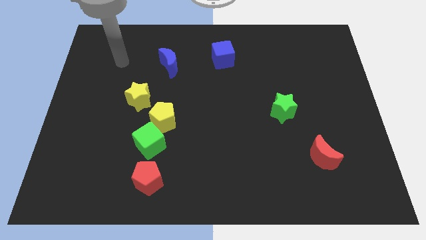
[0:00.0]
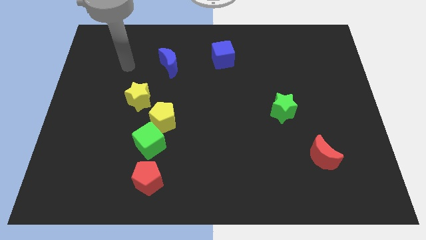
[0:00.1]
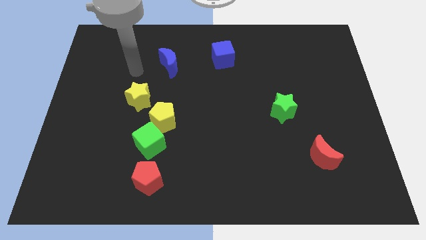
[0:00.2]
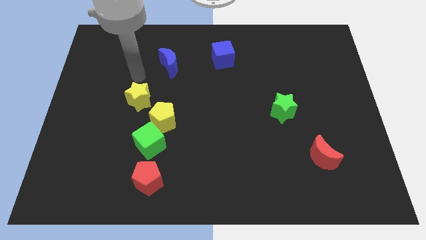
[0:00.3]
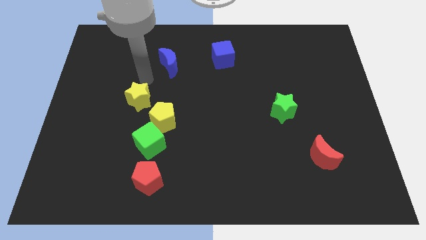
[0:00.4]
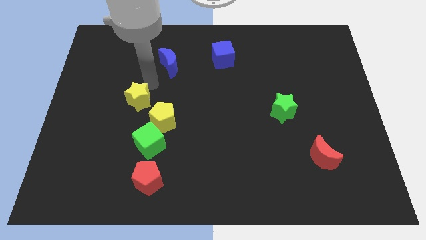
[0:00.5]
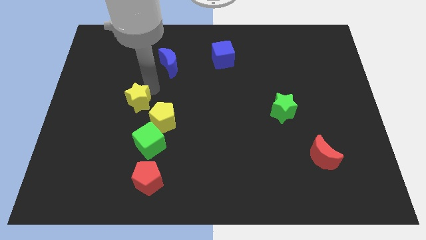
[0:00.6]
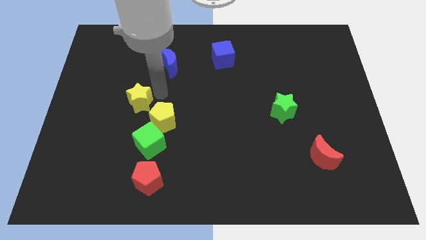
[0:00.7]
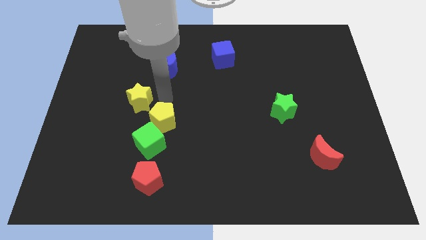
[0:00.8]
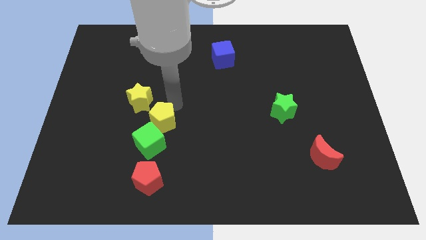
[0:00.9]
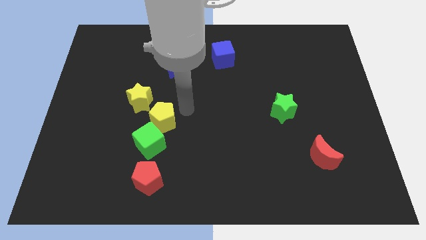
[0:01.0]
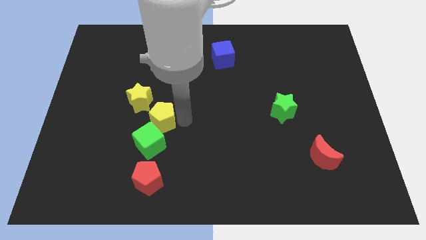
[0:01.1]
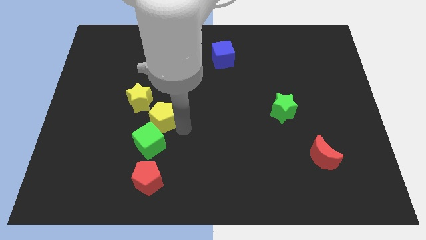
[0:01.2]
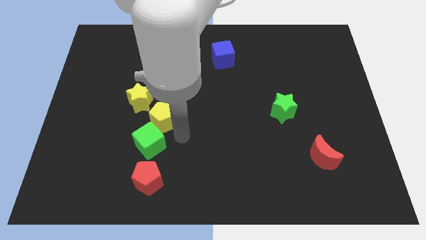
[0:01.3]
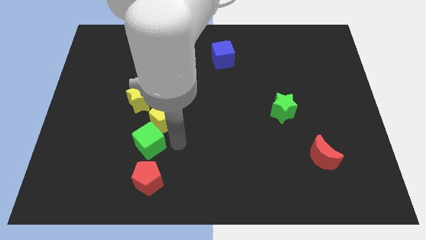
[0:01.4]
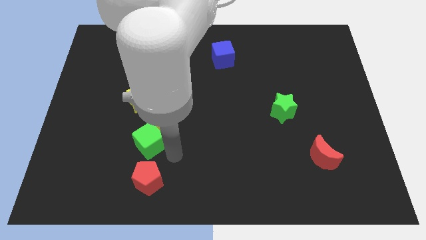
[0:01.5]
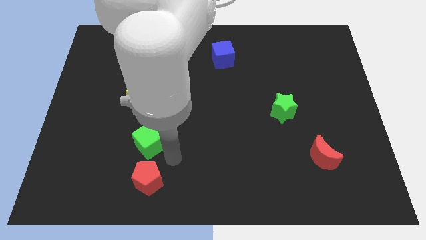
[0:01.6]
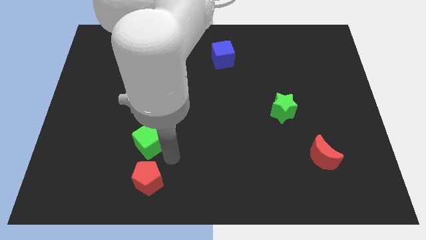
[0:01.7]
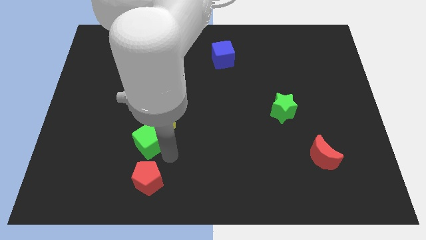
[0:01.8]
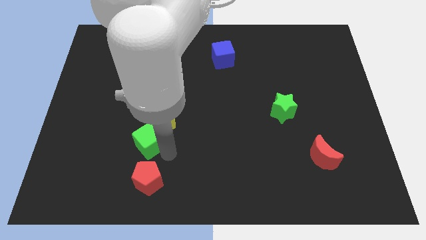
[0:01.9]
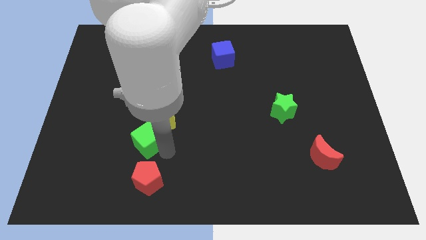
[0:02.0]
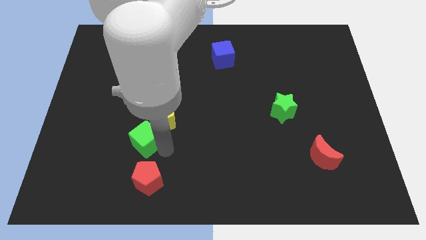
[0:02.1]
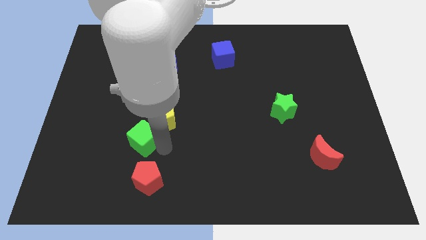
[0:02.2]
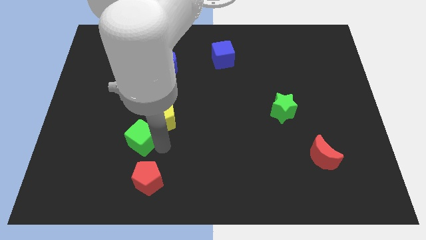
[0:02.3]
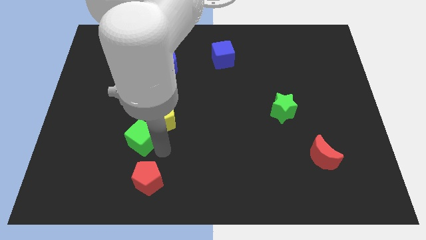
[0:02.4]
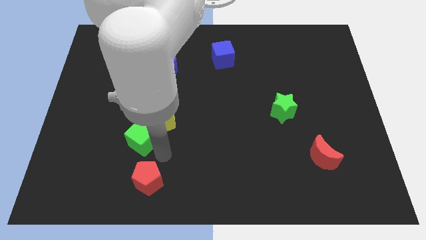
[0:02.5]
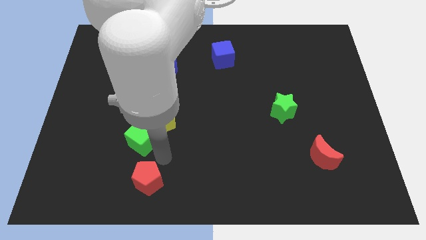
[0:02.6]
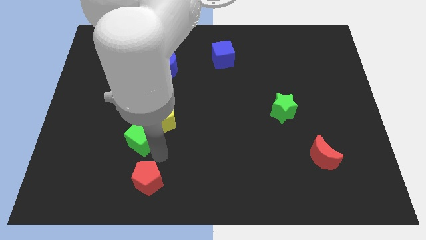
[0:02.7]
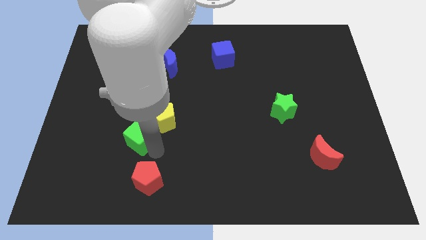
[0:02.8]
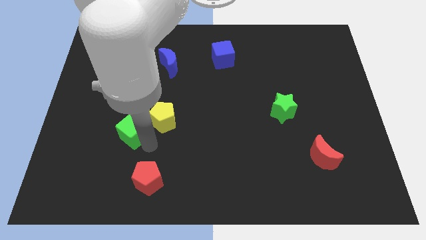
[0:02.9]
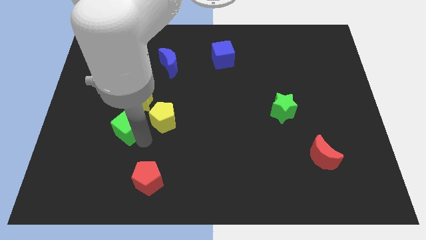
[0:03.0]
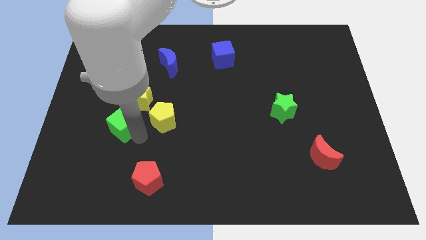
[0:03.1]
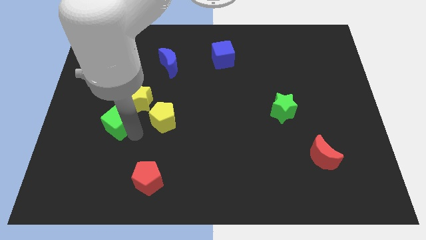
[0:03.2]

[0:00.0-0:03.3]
move the green cube away from the yellow pentagon and red pentagon

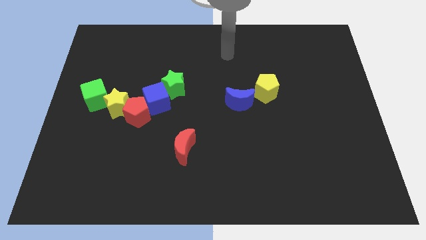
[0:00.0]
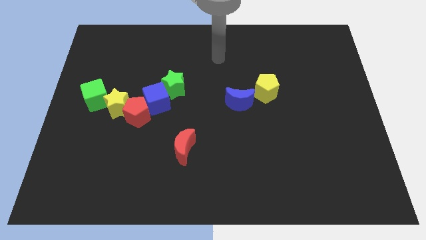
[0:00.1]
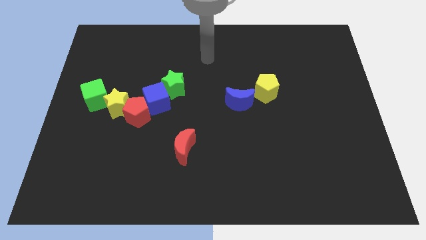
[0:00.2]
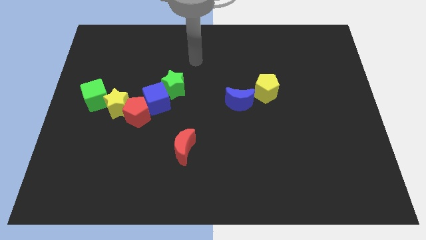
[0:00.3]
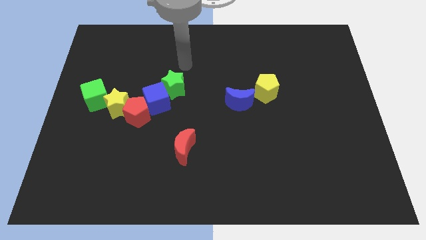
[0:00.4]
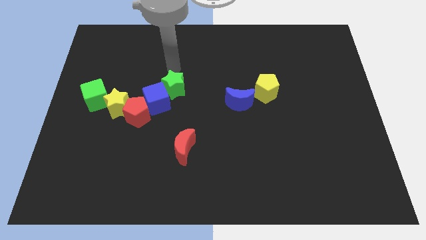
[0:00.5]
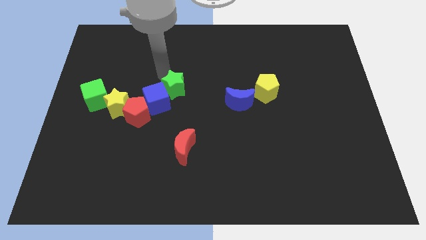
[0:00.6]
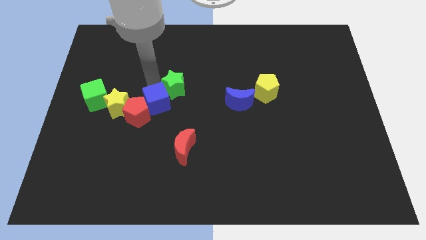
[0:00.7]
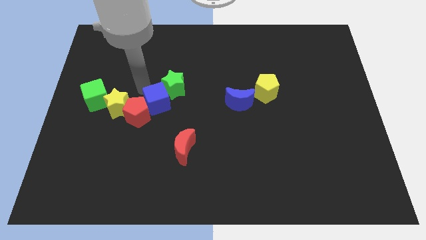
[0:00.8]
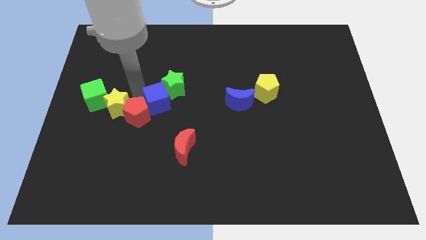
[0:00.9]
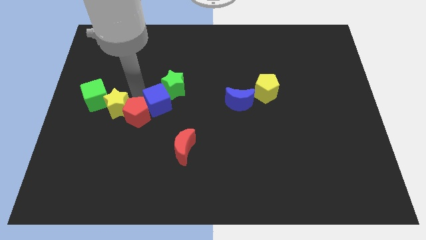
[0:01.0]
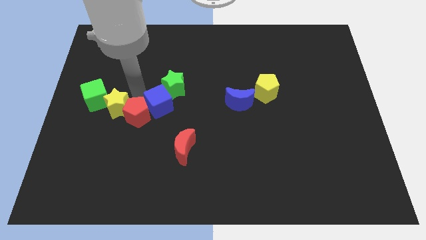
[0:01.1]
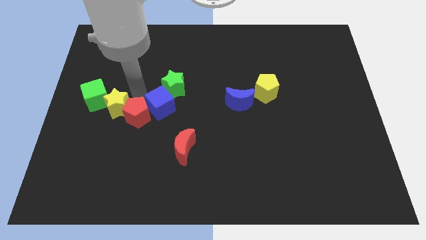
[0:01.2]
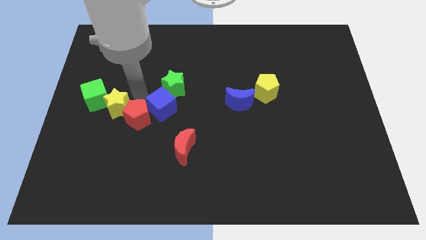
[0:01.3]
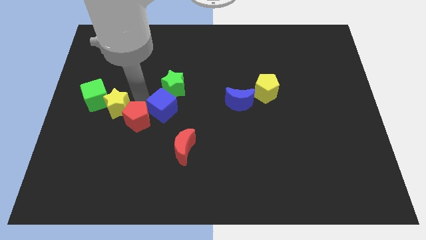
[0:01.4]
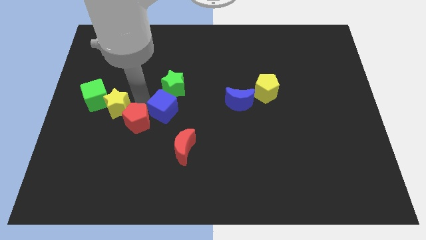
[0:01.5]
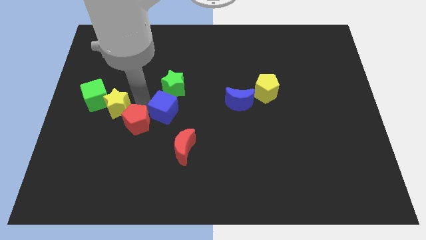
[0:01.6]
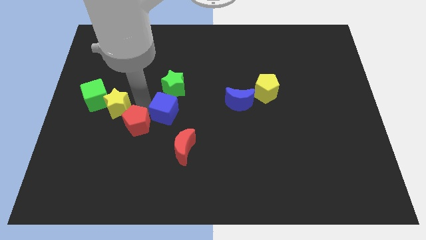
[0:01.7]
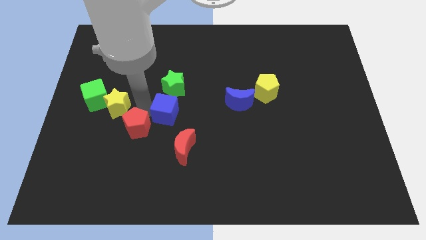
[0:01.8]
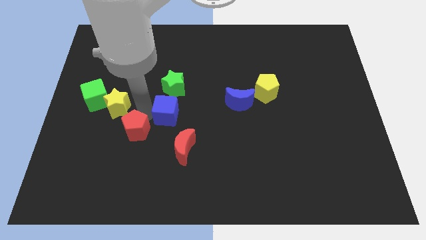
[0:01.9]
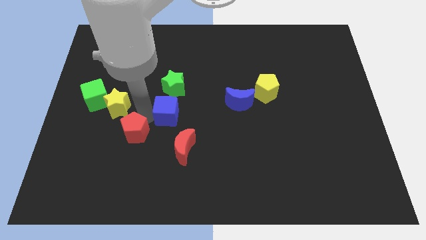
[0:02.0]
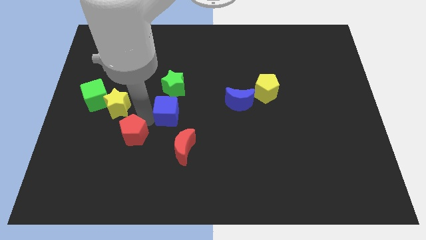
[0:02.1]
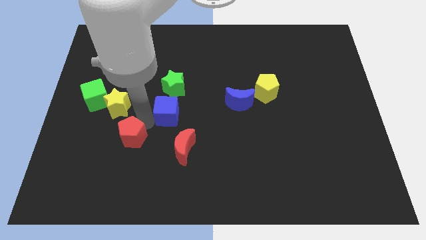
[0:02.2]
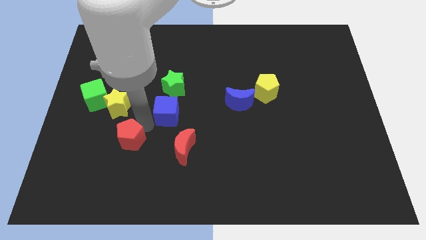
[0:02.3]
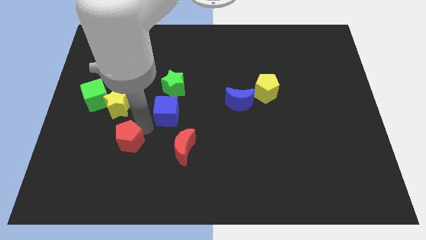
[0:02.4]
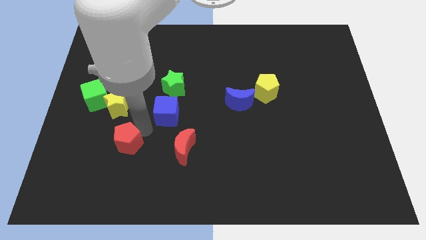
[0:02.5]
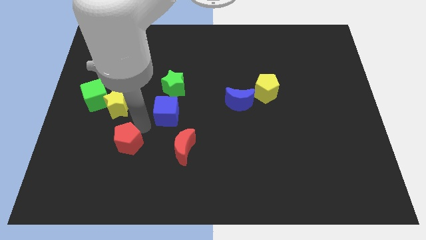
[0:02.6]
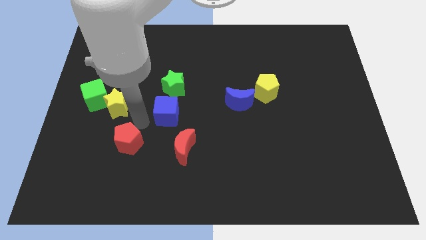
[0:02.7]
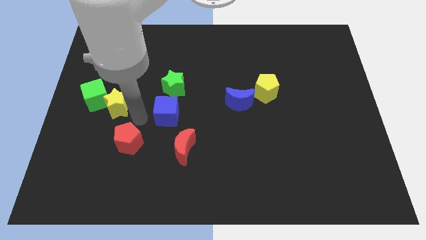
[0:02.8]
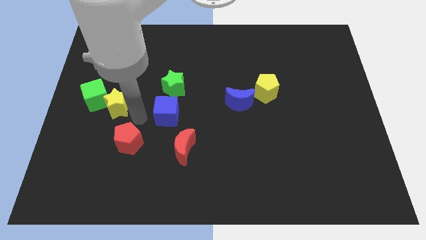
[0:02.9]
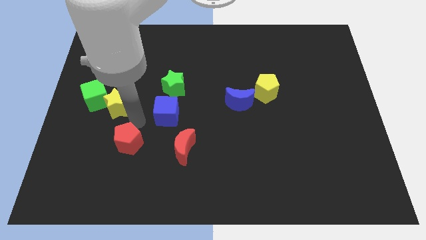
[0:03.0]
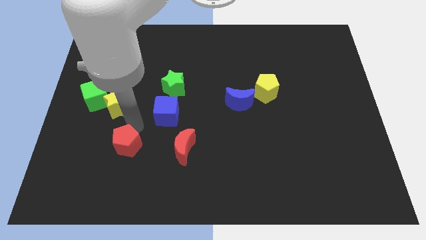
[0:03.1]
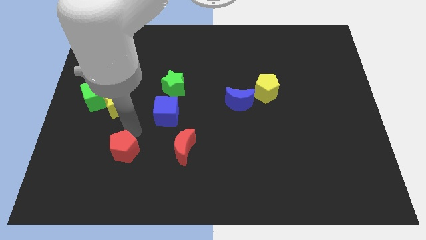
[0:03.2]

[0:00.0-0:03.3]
pull the red pentagon apart from the blue cube and yellow star

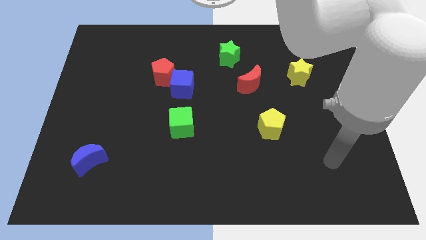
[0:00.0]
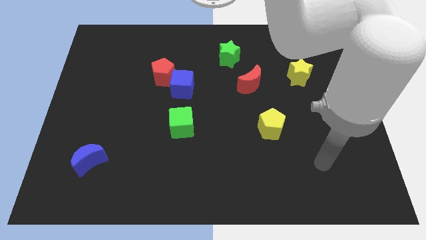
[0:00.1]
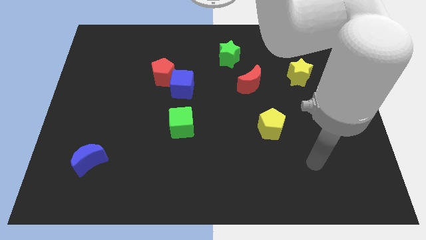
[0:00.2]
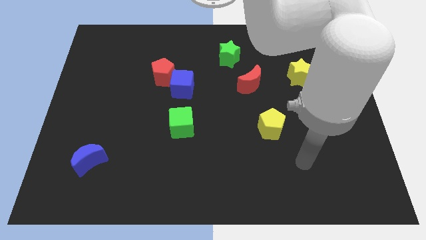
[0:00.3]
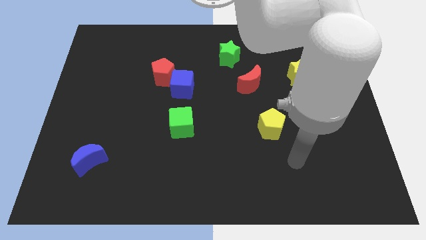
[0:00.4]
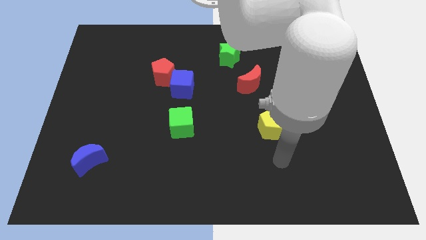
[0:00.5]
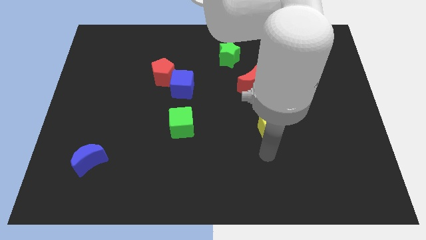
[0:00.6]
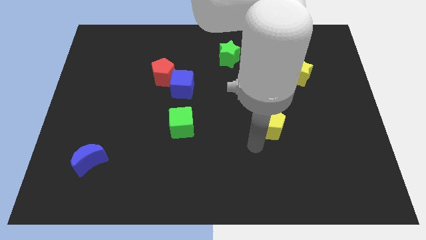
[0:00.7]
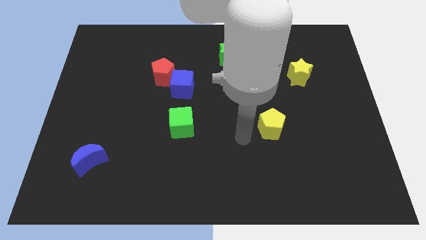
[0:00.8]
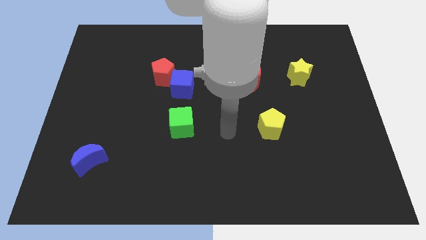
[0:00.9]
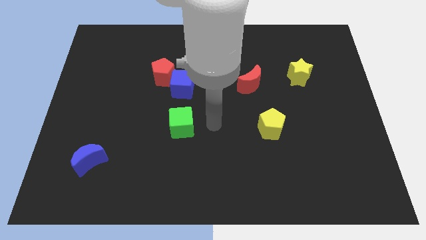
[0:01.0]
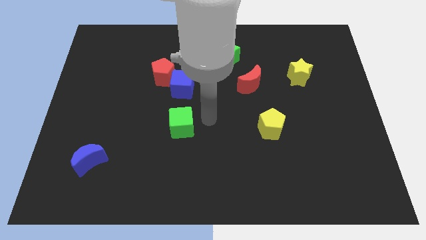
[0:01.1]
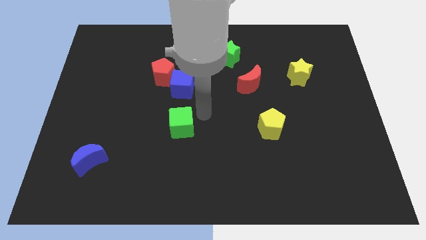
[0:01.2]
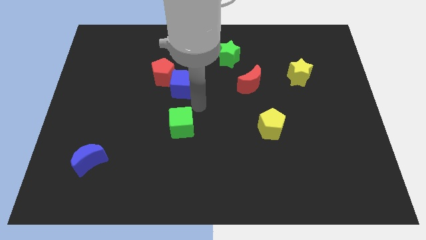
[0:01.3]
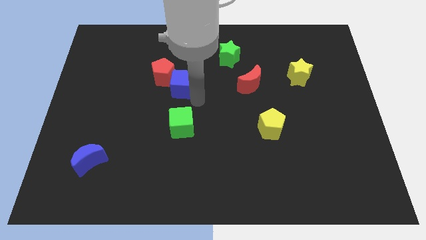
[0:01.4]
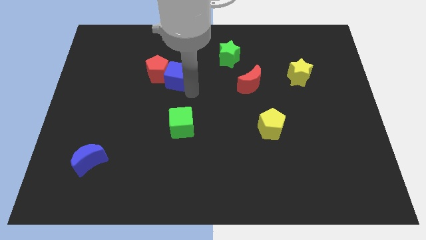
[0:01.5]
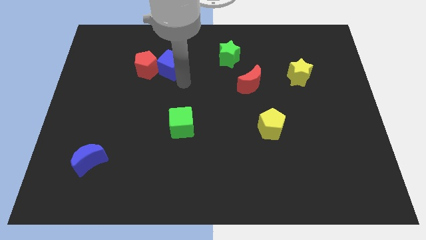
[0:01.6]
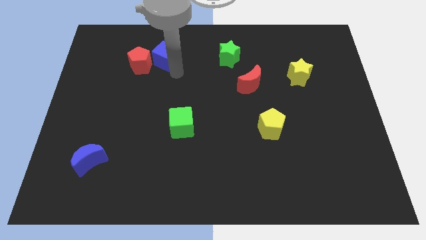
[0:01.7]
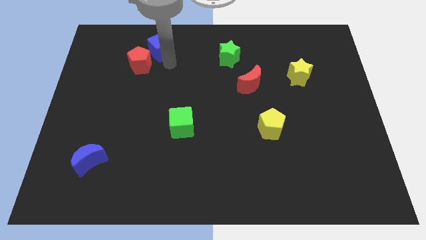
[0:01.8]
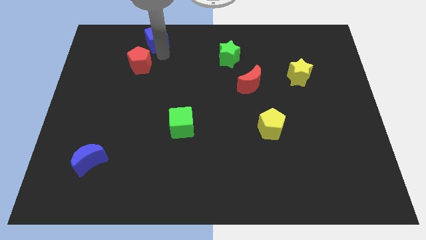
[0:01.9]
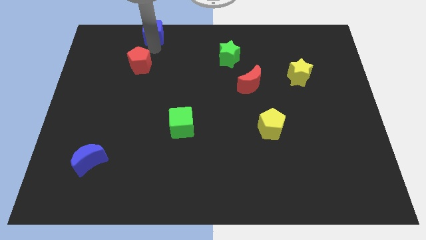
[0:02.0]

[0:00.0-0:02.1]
move the red pentagon away from the blue cube

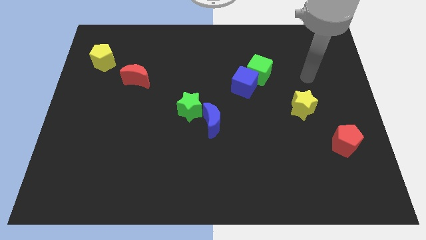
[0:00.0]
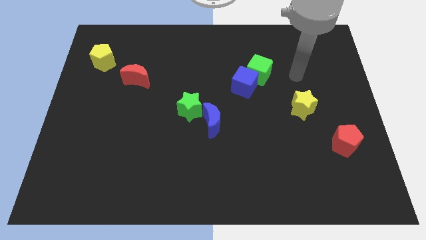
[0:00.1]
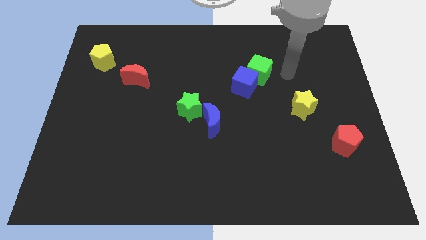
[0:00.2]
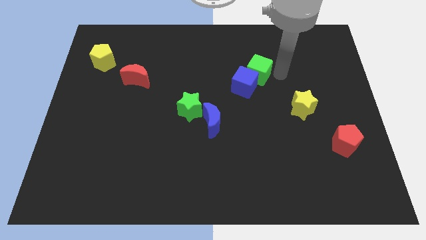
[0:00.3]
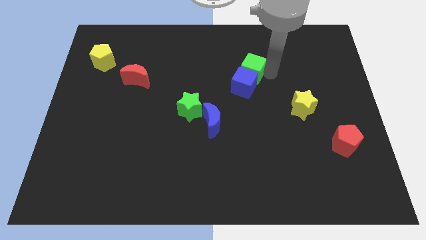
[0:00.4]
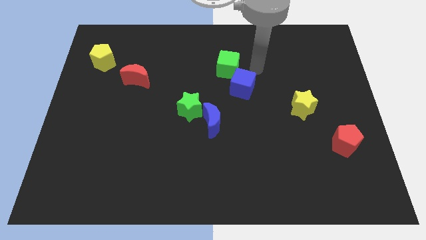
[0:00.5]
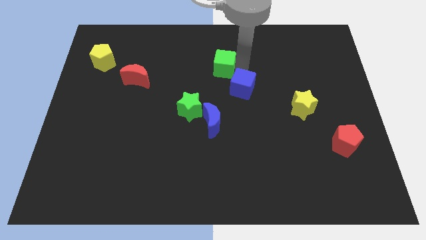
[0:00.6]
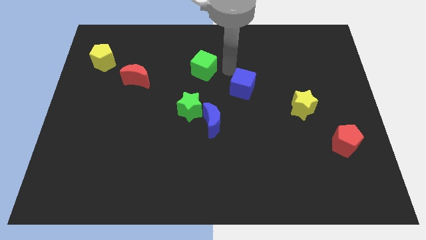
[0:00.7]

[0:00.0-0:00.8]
move the blue cube away from the green cube
